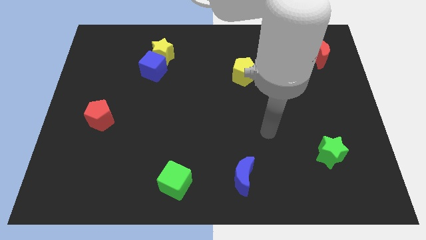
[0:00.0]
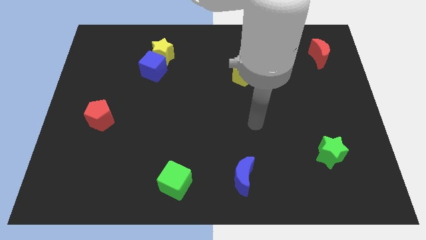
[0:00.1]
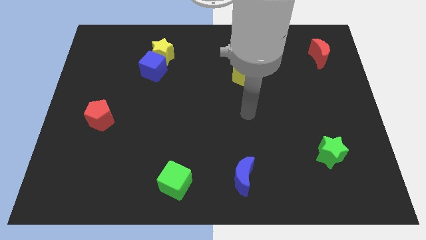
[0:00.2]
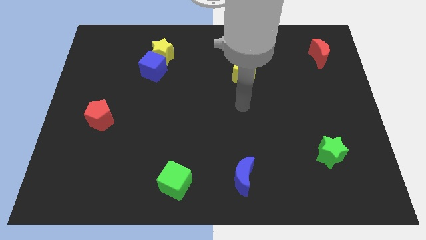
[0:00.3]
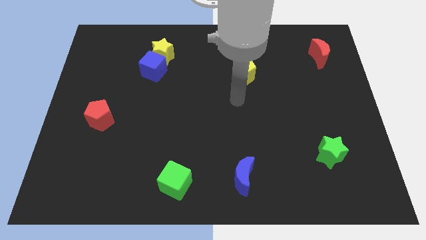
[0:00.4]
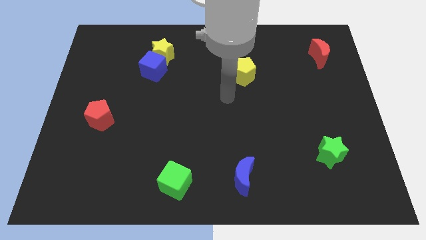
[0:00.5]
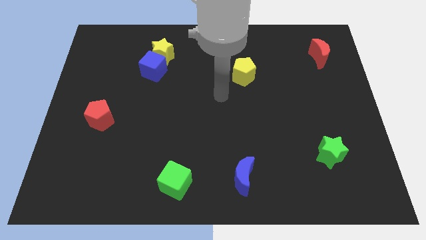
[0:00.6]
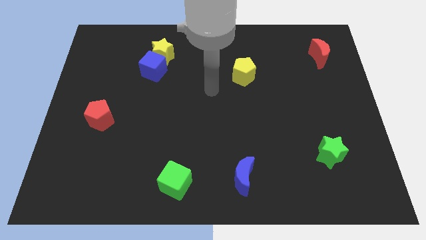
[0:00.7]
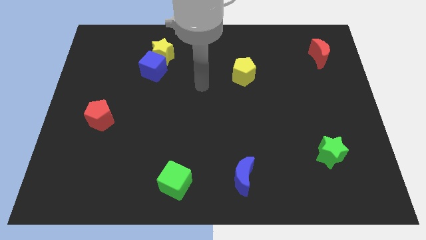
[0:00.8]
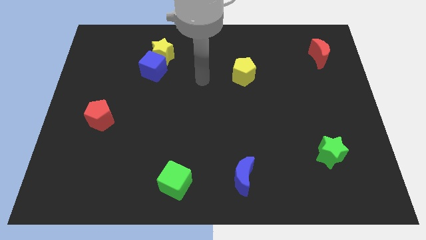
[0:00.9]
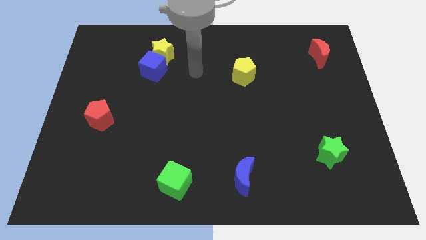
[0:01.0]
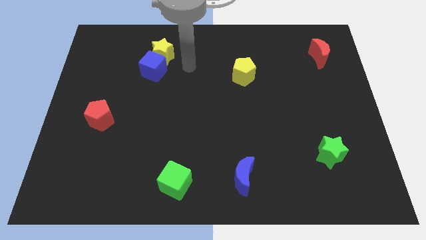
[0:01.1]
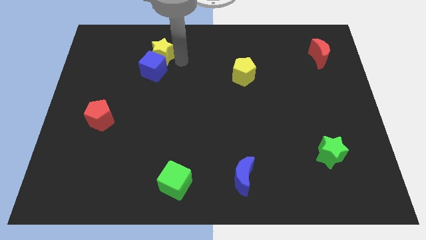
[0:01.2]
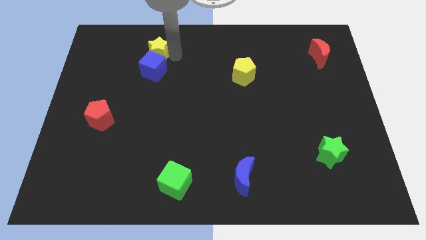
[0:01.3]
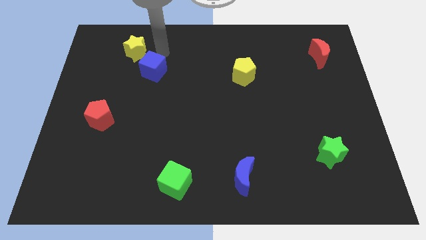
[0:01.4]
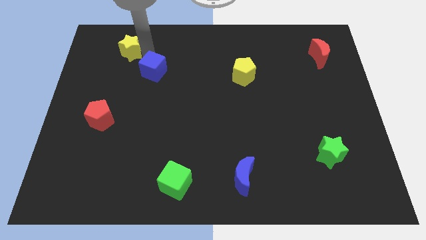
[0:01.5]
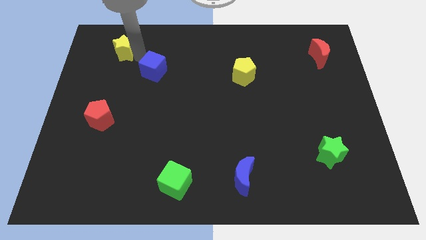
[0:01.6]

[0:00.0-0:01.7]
move the blue cube away from the yellow star

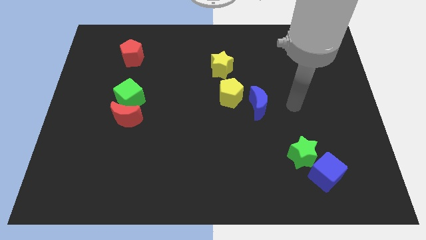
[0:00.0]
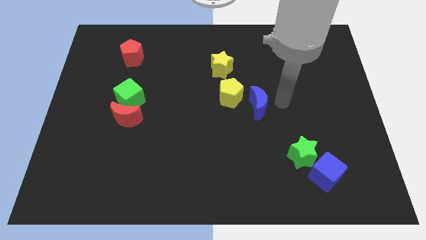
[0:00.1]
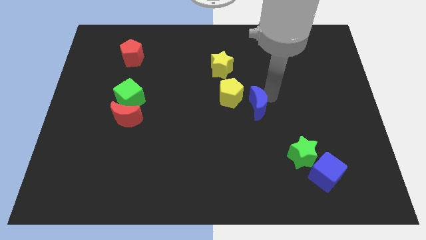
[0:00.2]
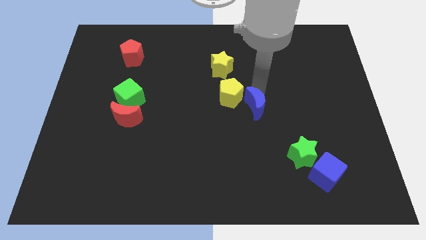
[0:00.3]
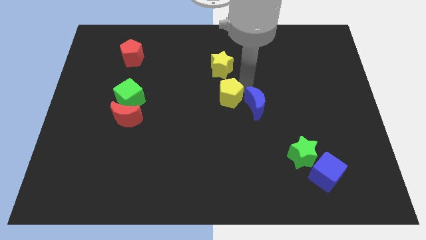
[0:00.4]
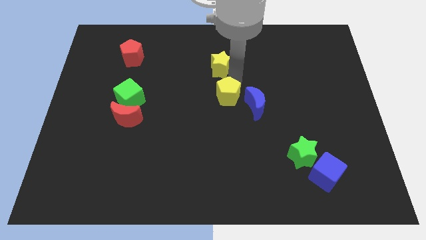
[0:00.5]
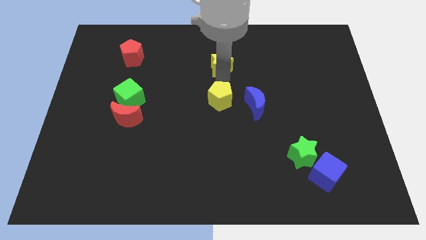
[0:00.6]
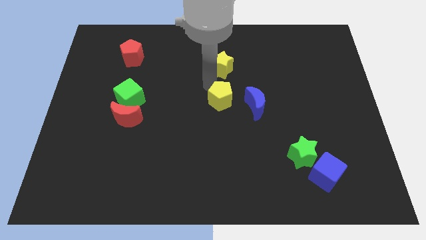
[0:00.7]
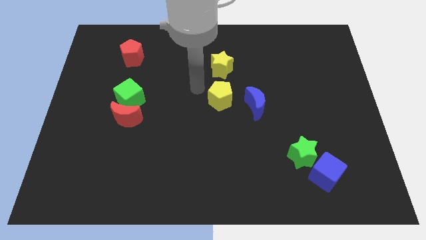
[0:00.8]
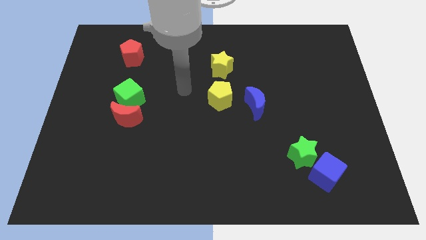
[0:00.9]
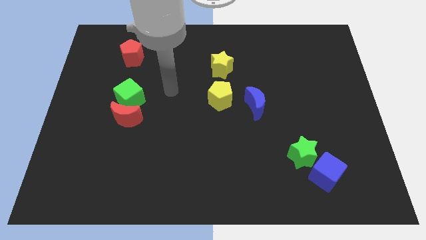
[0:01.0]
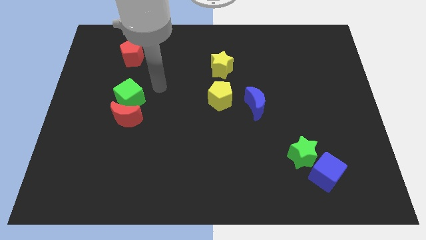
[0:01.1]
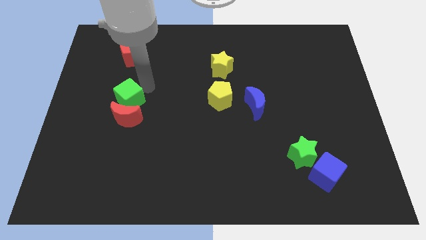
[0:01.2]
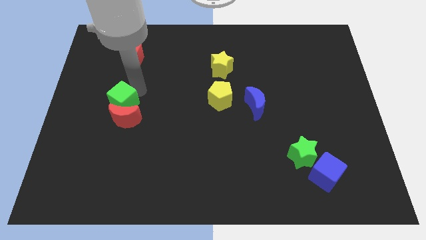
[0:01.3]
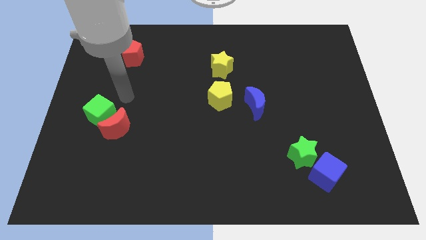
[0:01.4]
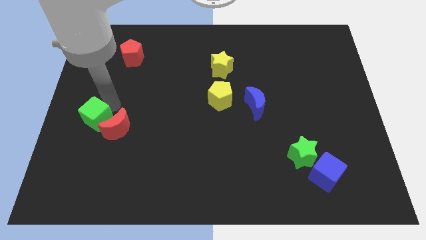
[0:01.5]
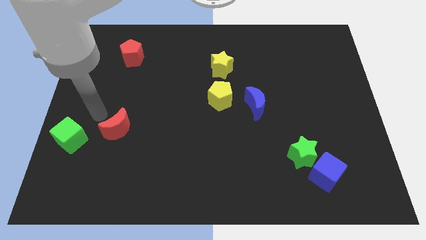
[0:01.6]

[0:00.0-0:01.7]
pull the red moon apart from the green cube

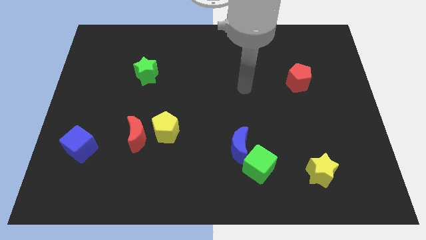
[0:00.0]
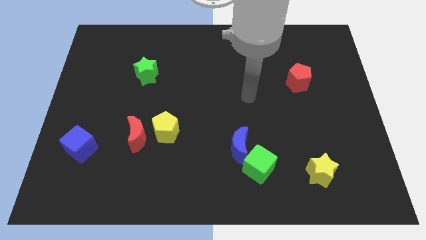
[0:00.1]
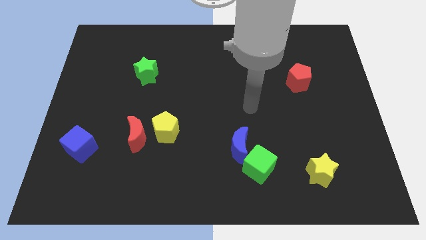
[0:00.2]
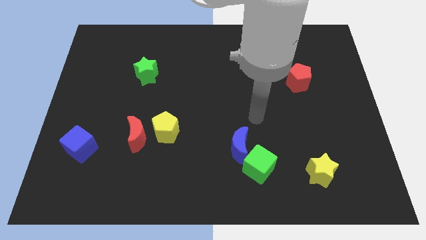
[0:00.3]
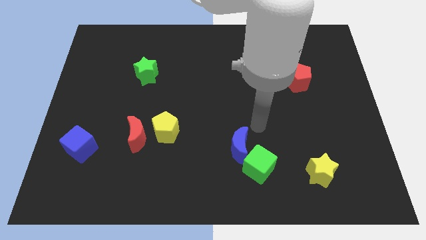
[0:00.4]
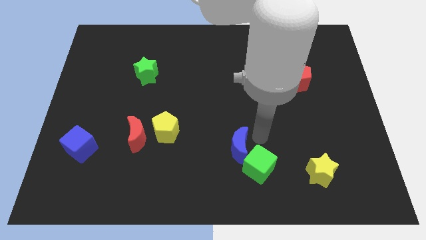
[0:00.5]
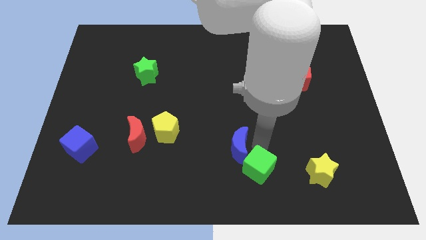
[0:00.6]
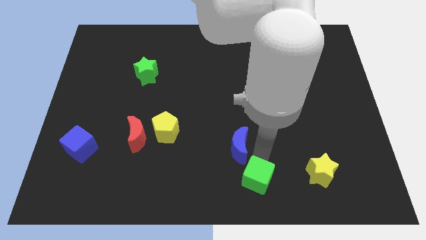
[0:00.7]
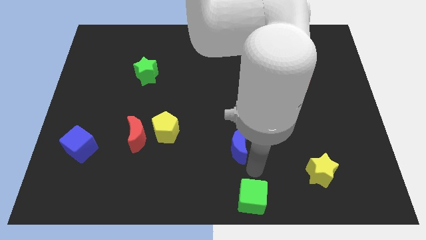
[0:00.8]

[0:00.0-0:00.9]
pull the blue moon apart from the green cube

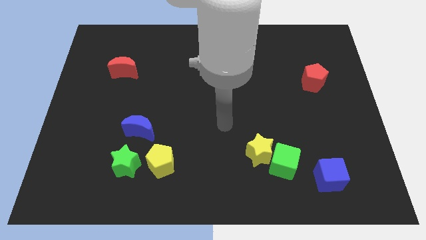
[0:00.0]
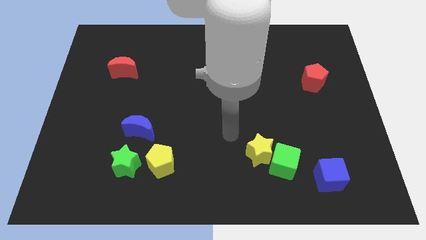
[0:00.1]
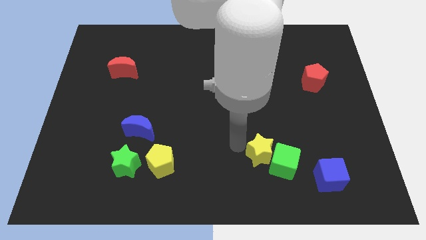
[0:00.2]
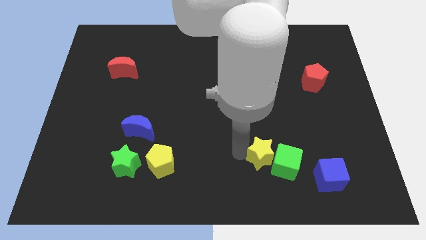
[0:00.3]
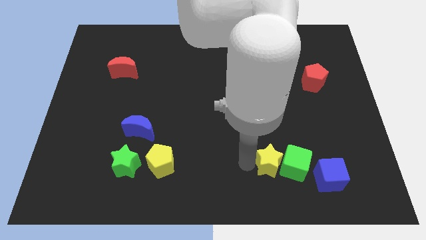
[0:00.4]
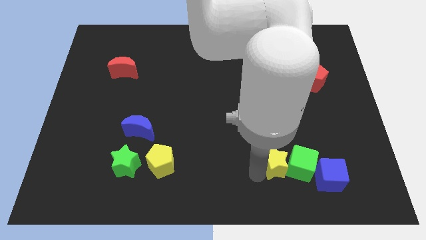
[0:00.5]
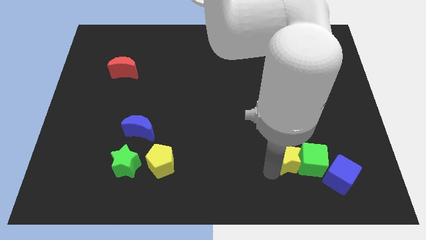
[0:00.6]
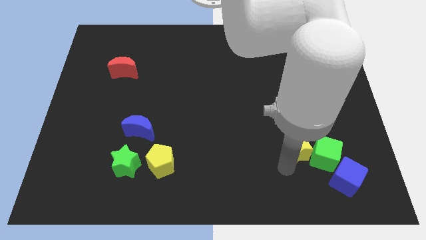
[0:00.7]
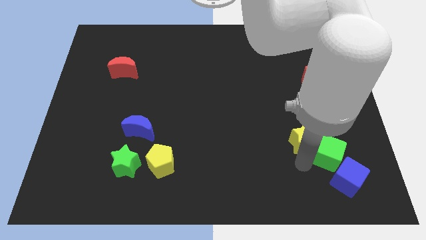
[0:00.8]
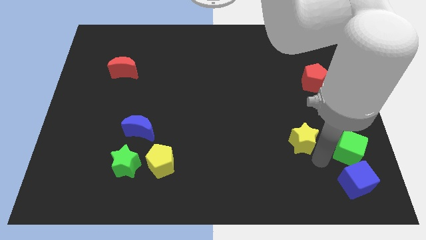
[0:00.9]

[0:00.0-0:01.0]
pull the yellow star apart from the green cube

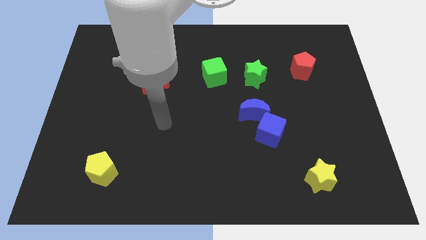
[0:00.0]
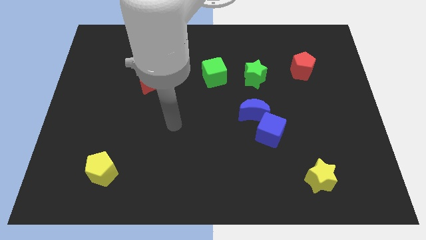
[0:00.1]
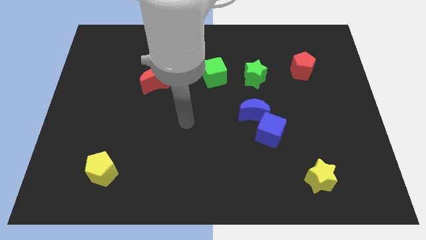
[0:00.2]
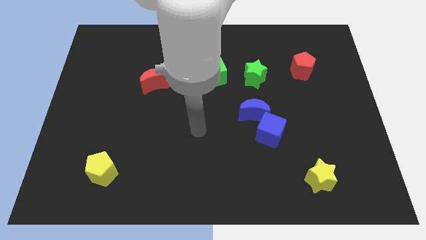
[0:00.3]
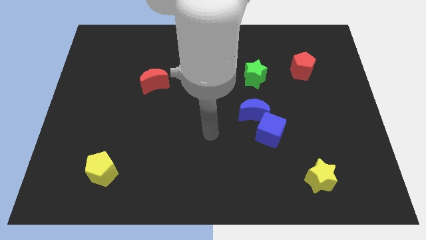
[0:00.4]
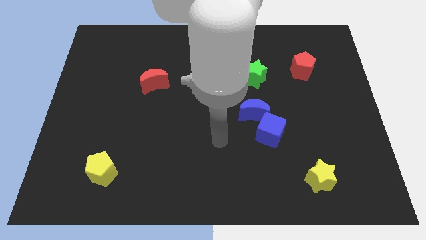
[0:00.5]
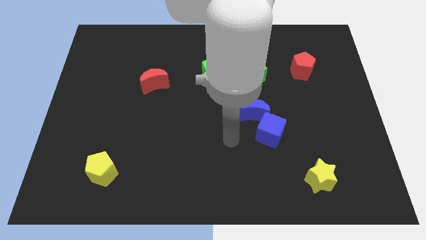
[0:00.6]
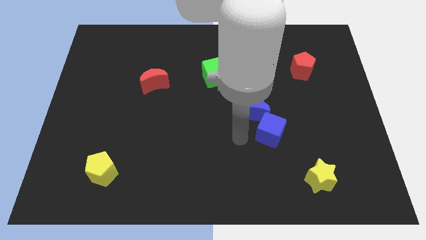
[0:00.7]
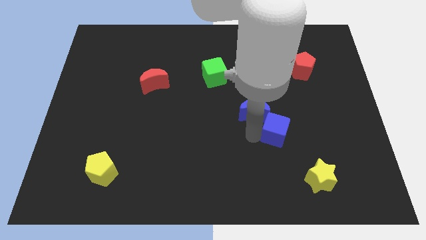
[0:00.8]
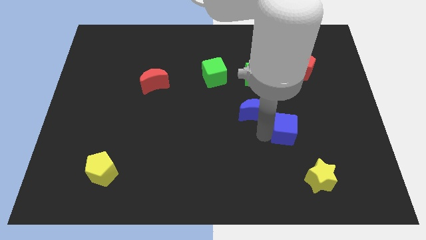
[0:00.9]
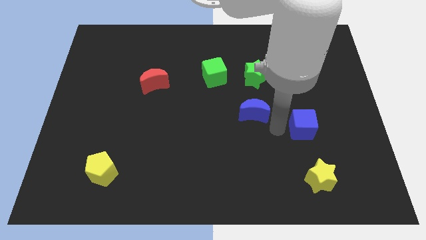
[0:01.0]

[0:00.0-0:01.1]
separate the blue moon from the blue cube

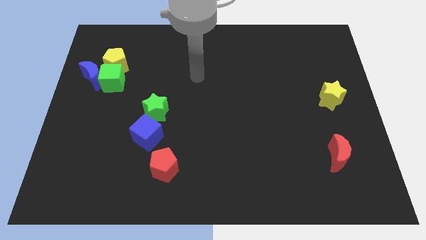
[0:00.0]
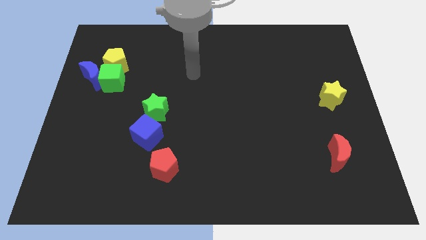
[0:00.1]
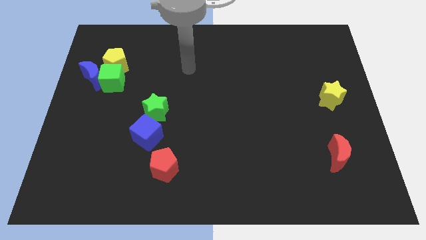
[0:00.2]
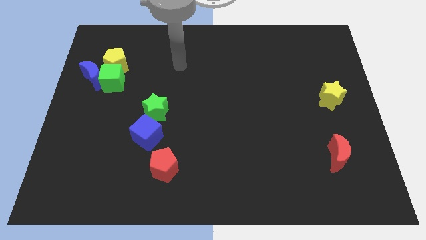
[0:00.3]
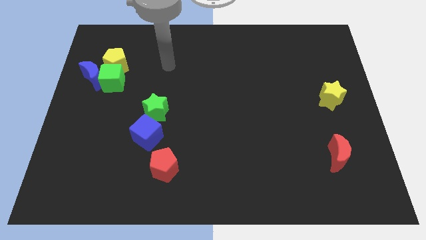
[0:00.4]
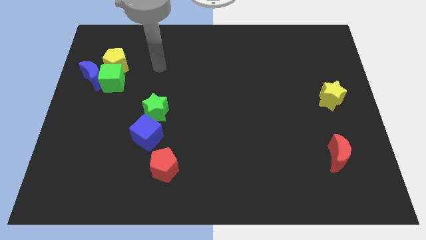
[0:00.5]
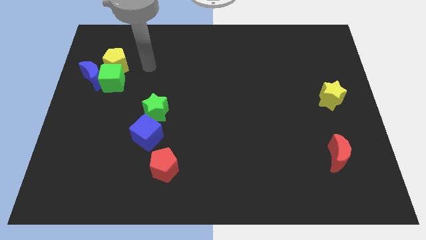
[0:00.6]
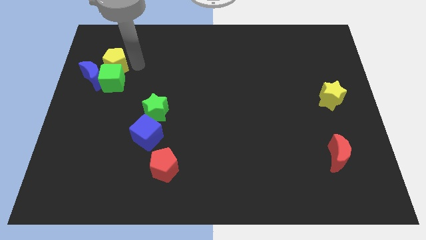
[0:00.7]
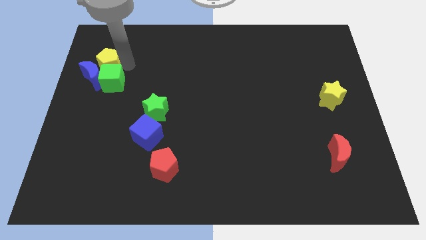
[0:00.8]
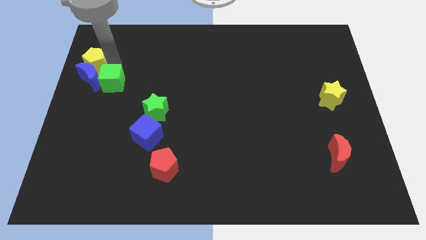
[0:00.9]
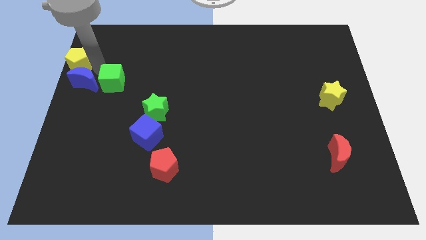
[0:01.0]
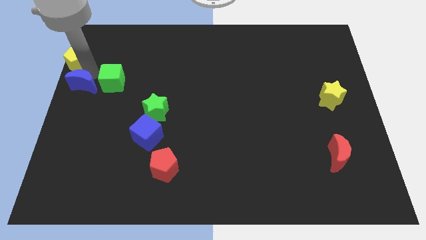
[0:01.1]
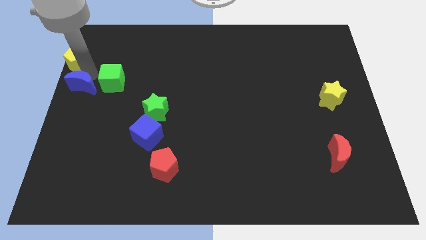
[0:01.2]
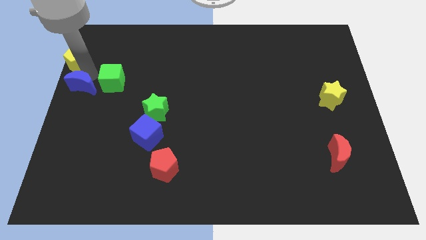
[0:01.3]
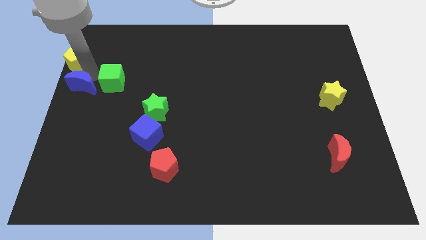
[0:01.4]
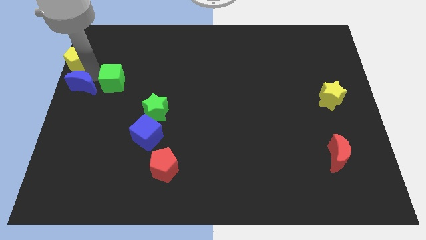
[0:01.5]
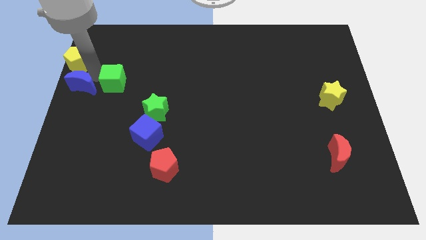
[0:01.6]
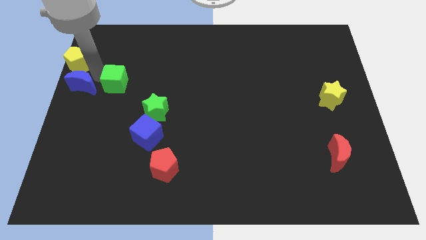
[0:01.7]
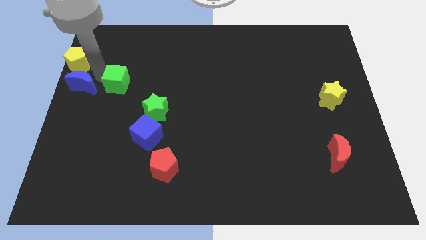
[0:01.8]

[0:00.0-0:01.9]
separate the green cube from the blue moon and yellow pentagon

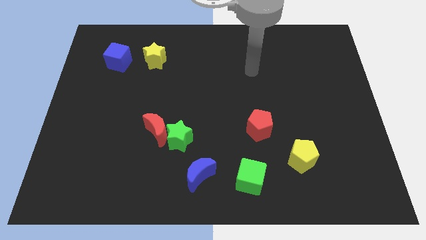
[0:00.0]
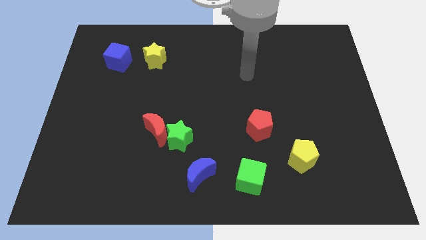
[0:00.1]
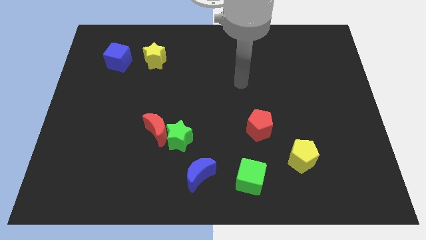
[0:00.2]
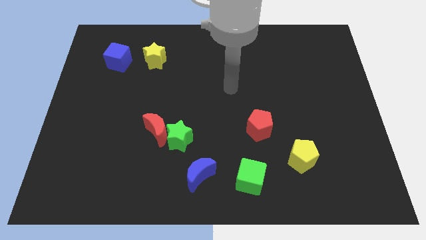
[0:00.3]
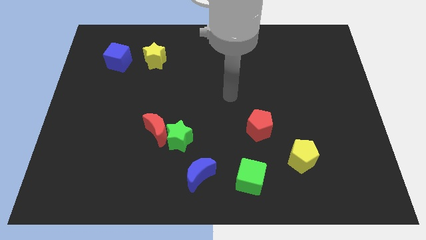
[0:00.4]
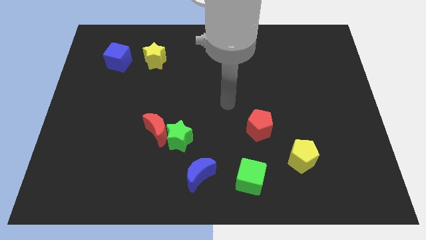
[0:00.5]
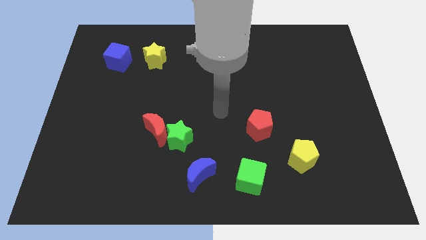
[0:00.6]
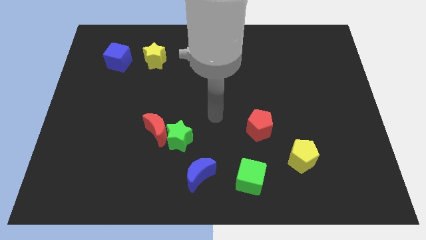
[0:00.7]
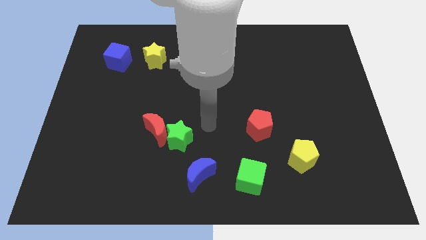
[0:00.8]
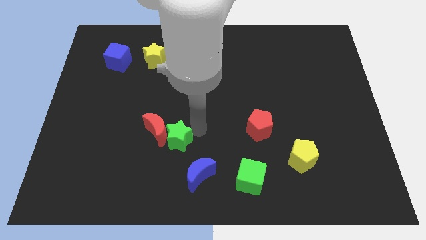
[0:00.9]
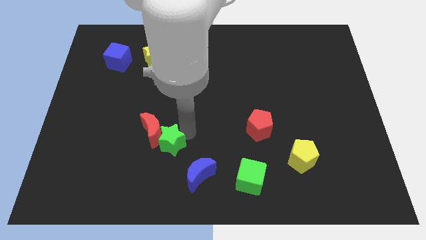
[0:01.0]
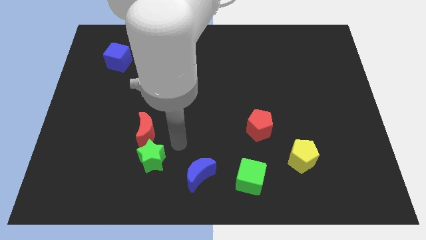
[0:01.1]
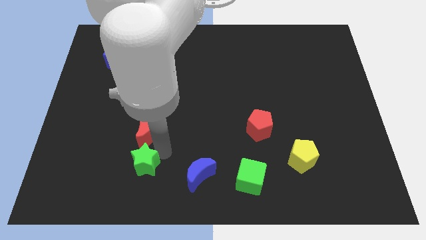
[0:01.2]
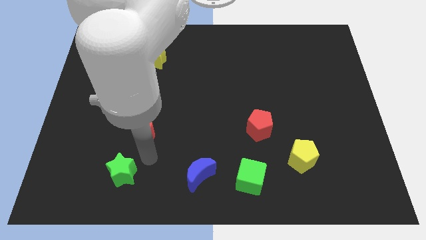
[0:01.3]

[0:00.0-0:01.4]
pull the red moon apart from the green star
